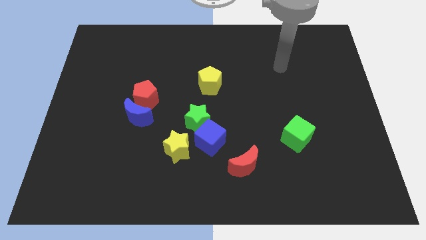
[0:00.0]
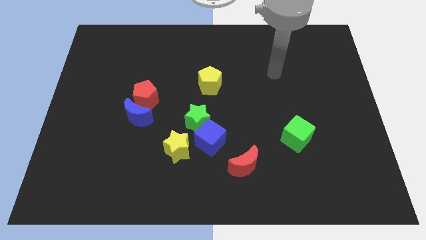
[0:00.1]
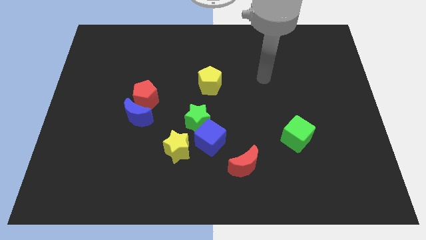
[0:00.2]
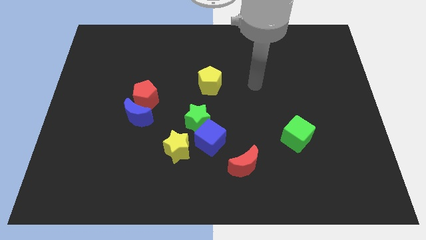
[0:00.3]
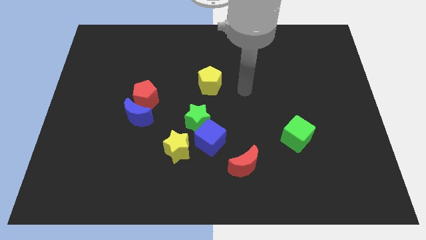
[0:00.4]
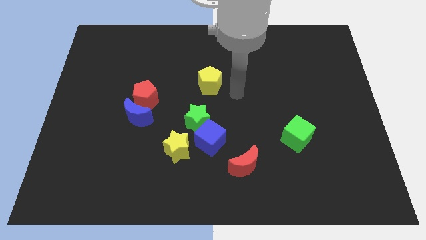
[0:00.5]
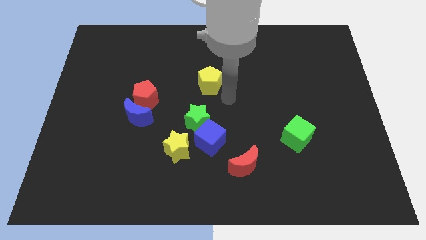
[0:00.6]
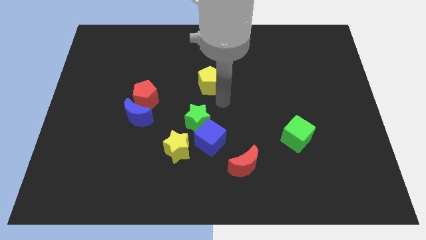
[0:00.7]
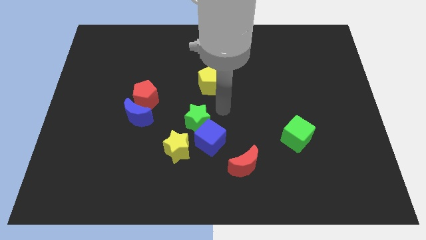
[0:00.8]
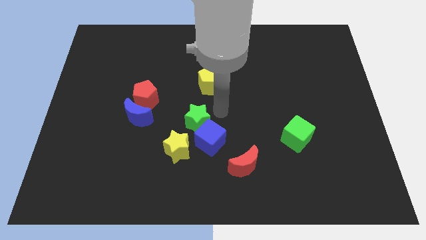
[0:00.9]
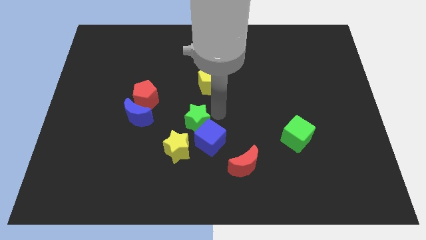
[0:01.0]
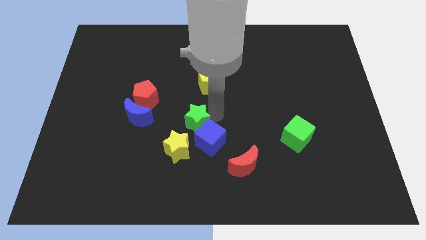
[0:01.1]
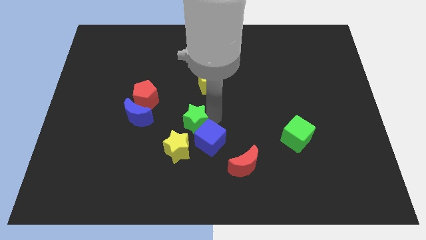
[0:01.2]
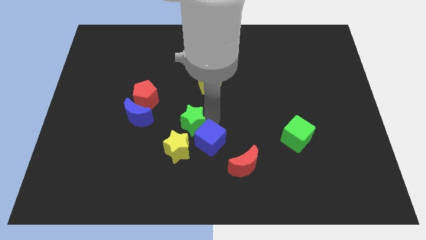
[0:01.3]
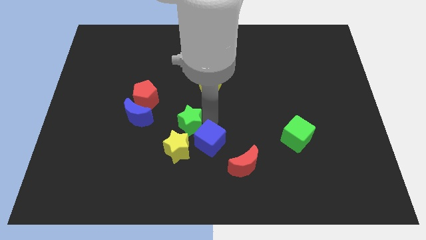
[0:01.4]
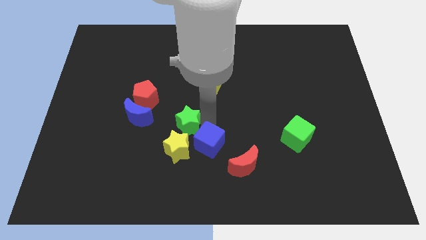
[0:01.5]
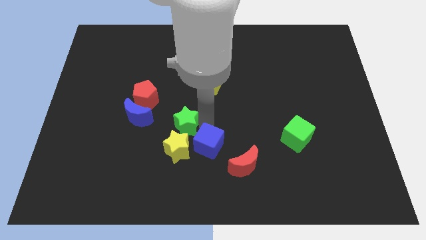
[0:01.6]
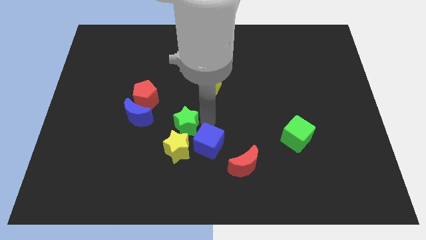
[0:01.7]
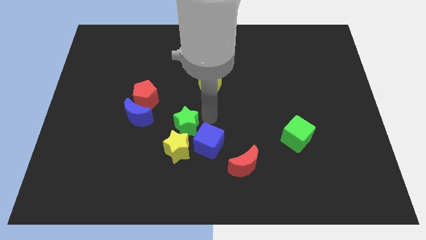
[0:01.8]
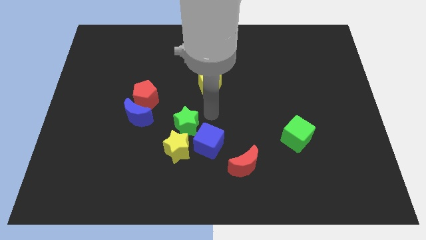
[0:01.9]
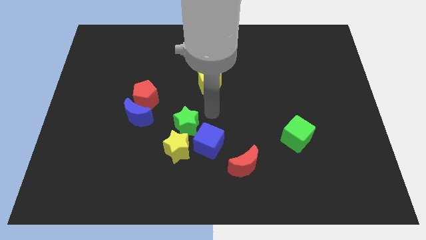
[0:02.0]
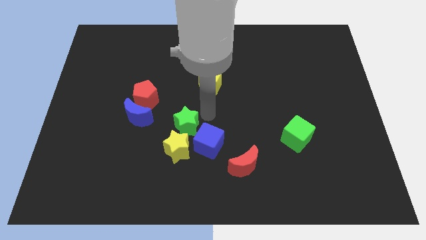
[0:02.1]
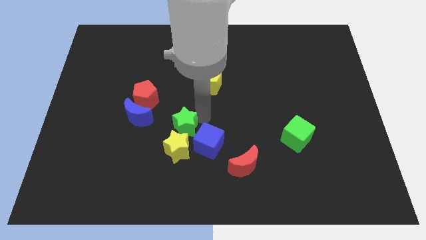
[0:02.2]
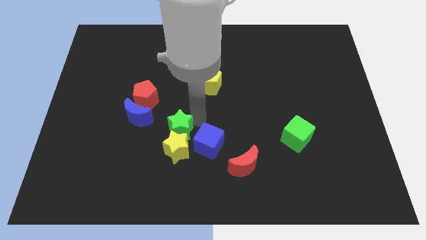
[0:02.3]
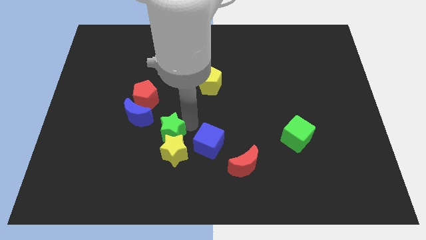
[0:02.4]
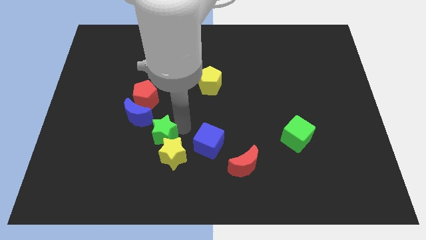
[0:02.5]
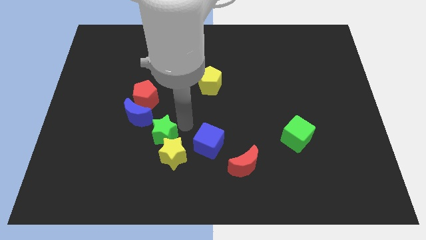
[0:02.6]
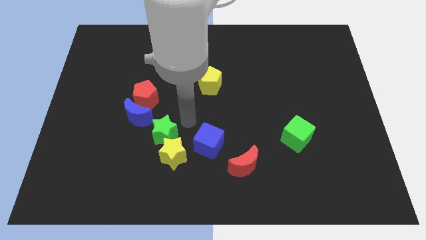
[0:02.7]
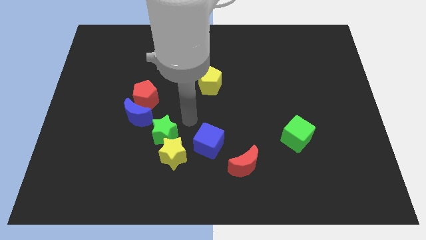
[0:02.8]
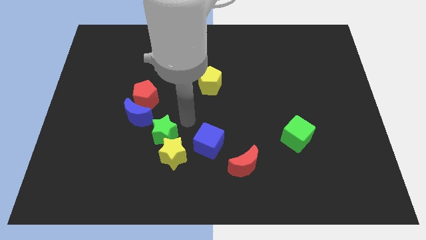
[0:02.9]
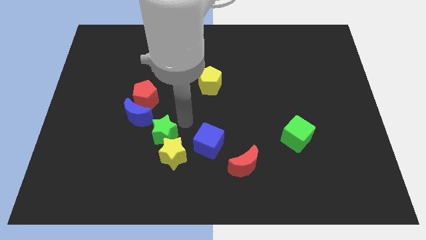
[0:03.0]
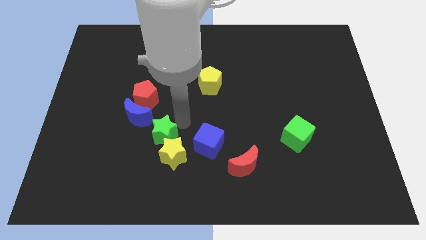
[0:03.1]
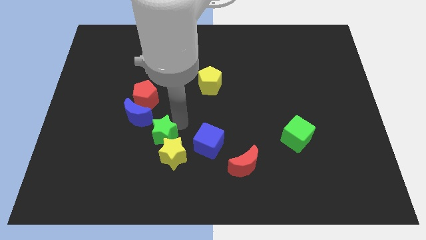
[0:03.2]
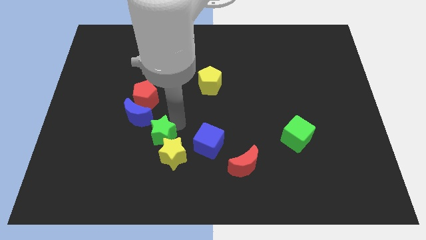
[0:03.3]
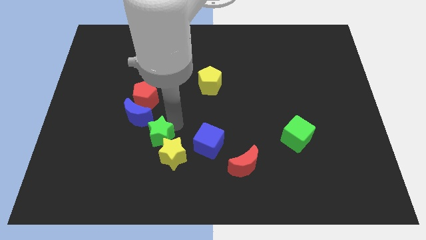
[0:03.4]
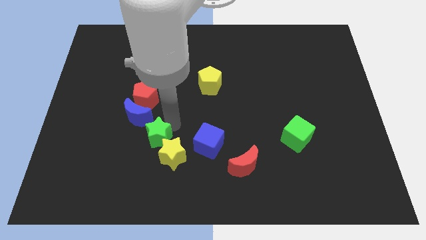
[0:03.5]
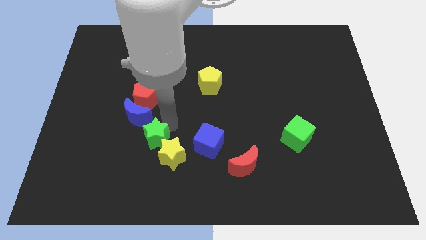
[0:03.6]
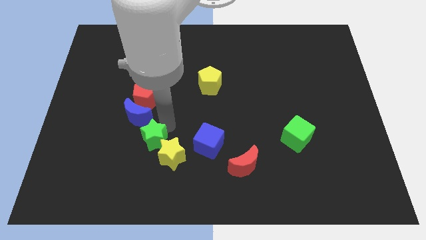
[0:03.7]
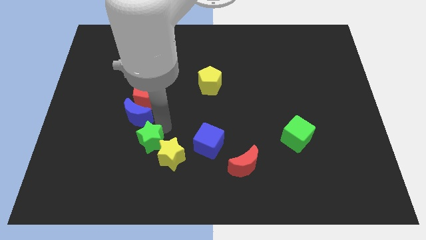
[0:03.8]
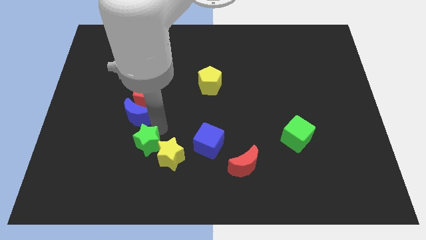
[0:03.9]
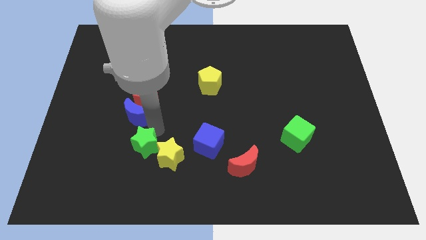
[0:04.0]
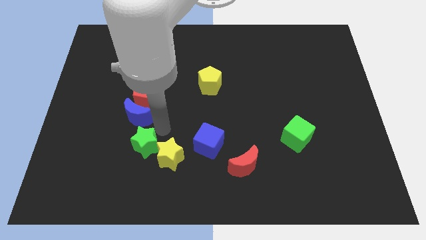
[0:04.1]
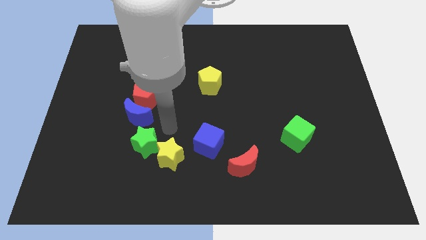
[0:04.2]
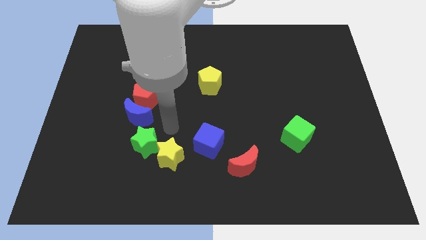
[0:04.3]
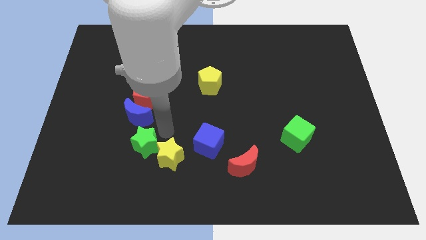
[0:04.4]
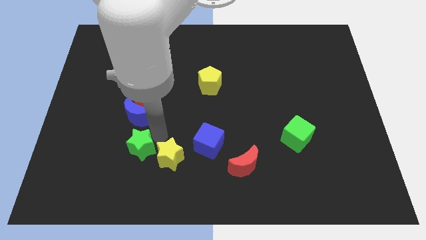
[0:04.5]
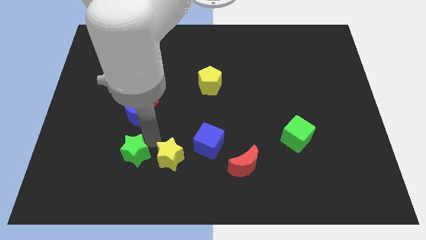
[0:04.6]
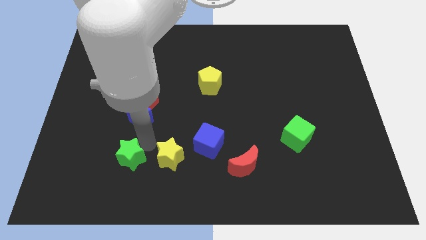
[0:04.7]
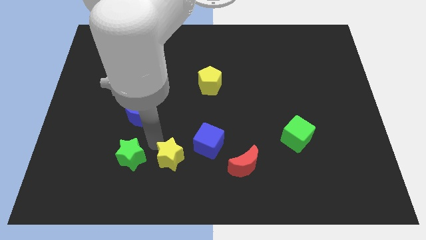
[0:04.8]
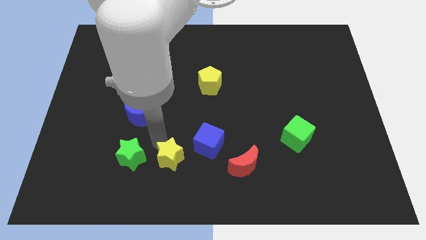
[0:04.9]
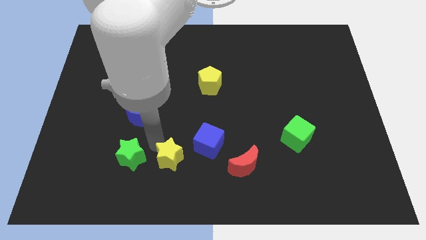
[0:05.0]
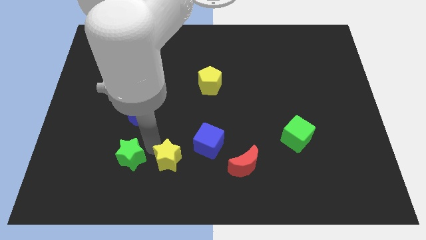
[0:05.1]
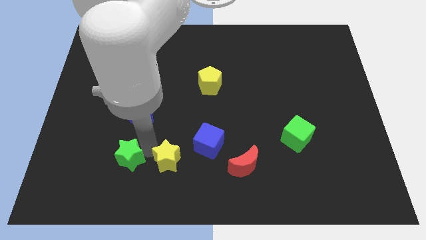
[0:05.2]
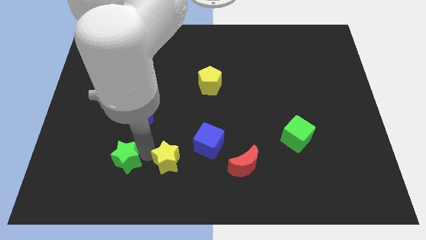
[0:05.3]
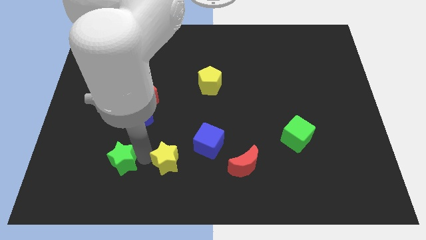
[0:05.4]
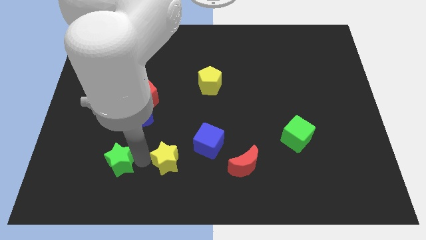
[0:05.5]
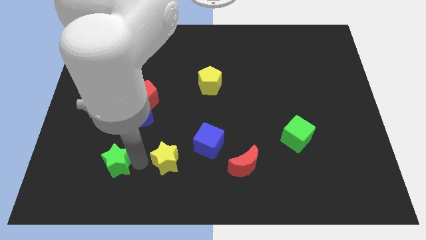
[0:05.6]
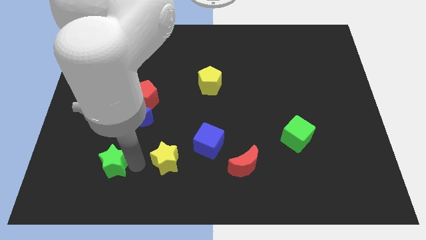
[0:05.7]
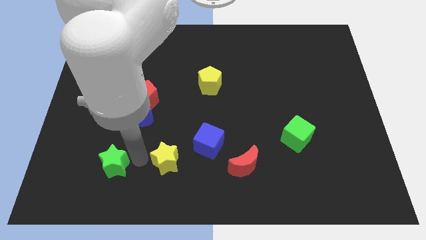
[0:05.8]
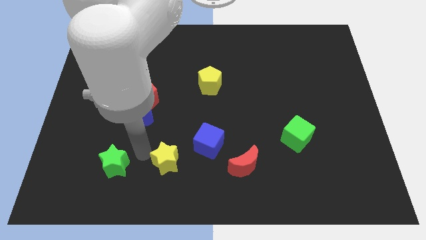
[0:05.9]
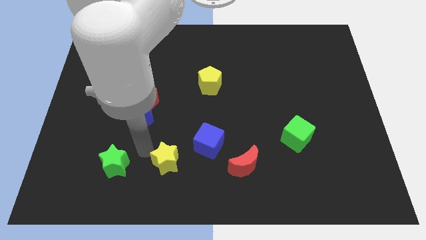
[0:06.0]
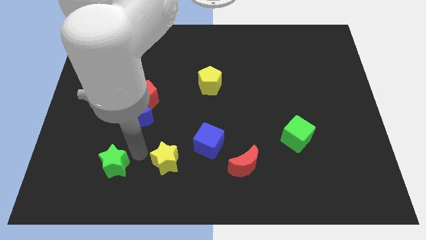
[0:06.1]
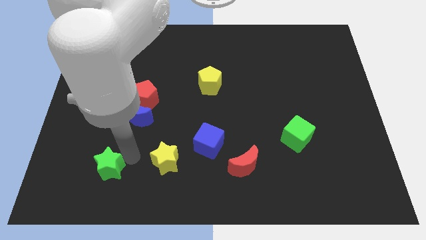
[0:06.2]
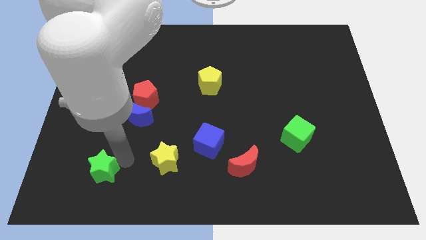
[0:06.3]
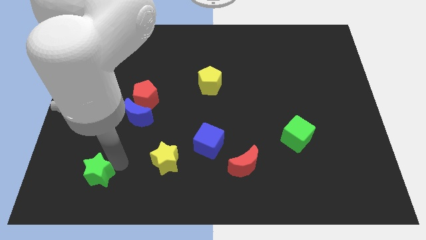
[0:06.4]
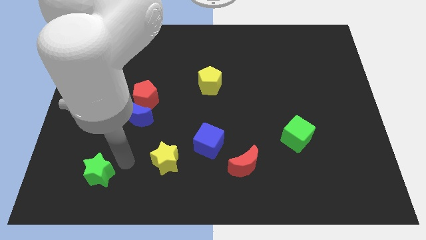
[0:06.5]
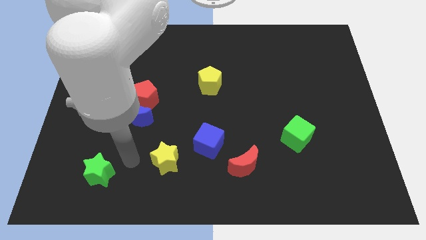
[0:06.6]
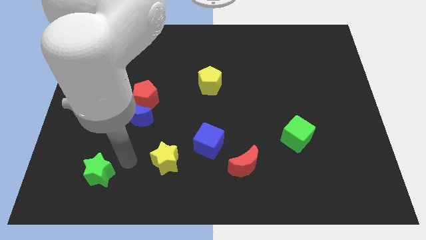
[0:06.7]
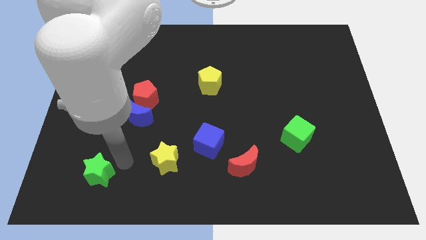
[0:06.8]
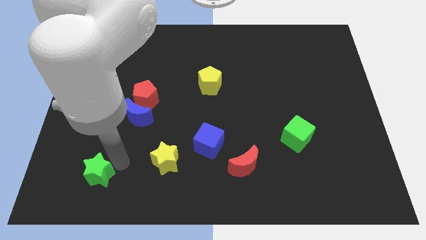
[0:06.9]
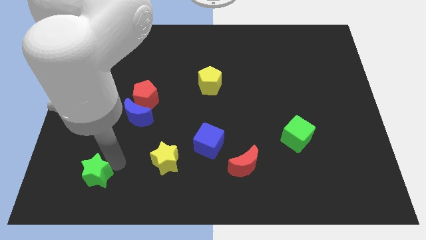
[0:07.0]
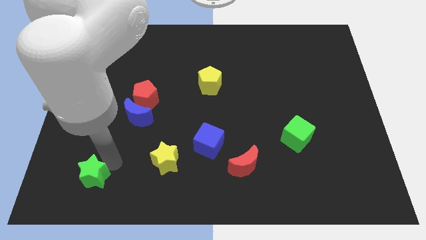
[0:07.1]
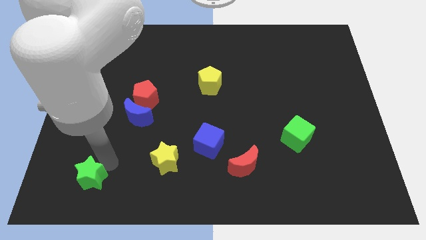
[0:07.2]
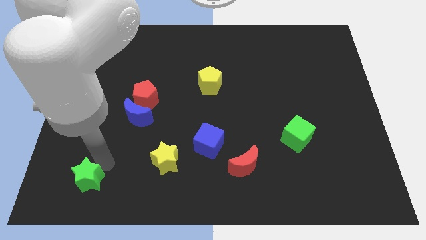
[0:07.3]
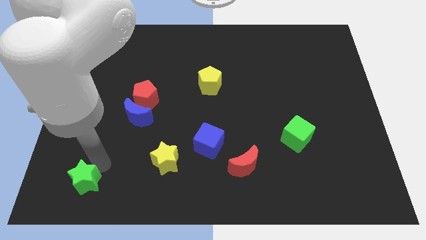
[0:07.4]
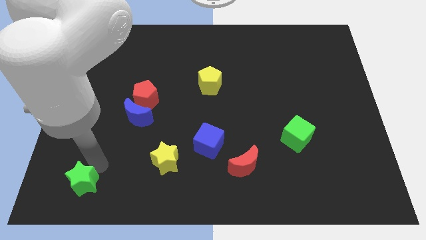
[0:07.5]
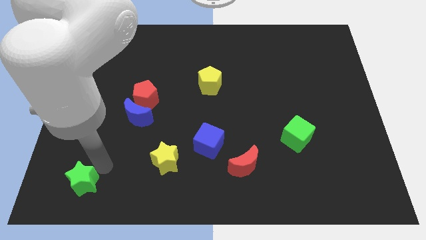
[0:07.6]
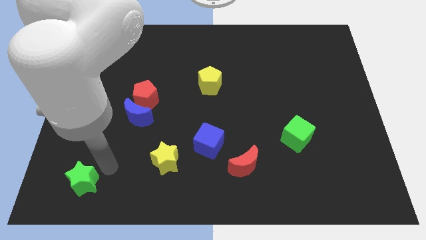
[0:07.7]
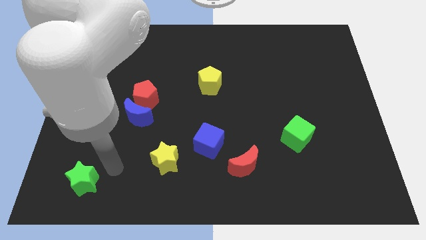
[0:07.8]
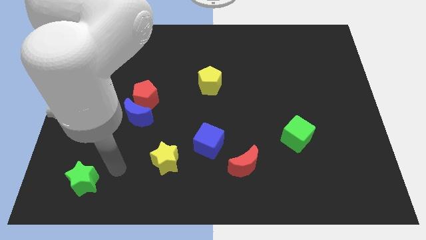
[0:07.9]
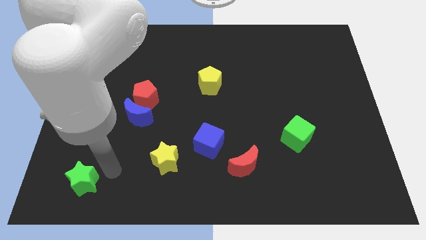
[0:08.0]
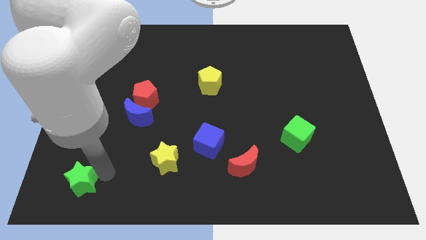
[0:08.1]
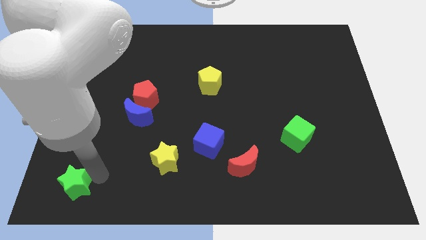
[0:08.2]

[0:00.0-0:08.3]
put the green star to the lower left corner
